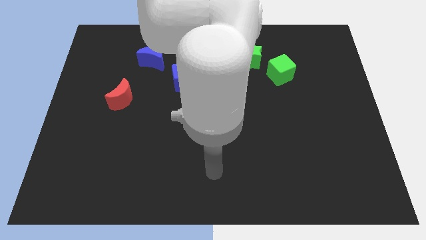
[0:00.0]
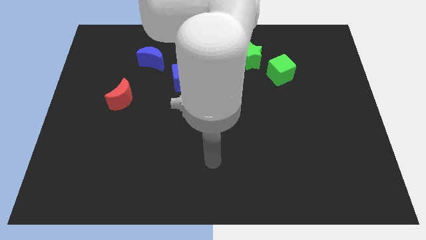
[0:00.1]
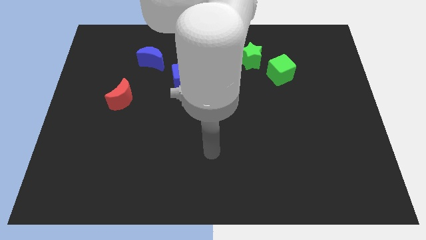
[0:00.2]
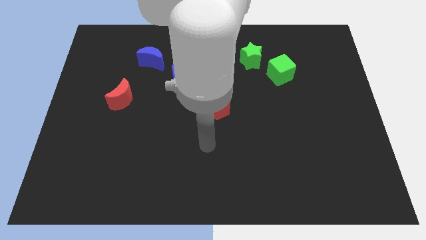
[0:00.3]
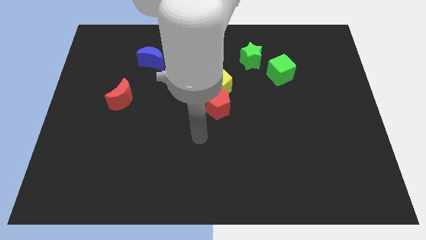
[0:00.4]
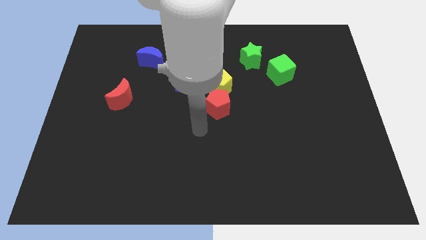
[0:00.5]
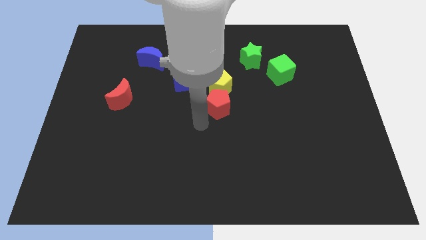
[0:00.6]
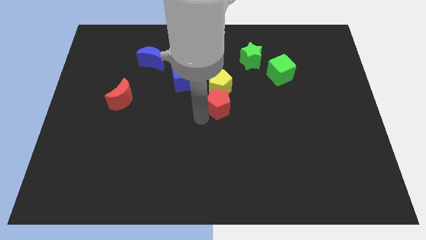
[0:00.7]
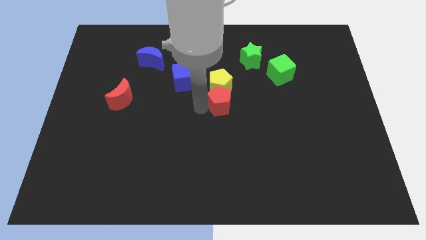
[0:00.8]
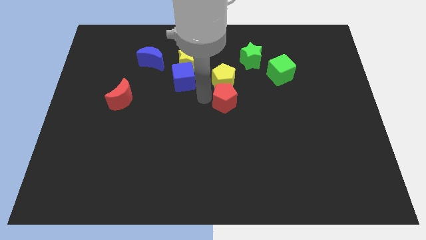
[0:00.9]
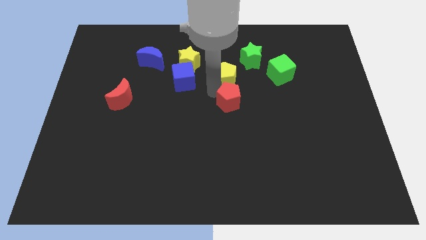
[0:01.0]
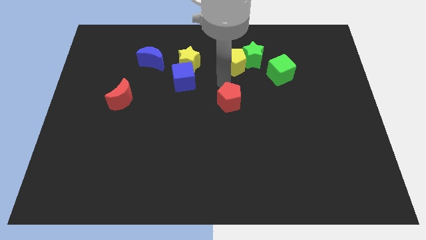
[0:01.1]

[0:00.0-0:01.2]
move the red pentagon away from the yellow pentagon

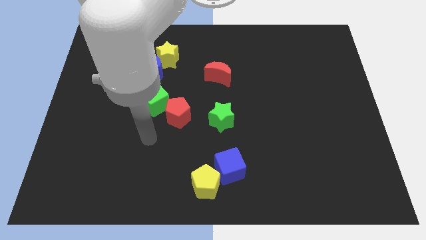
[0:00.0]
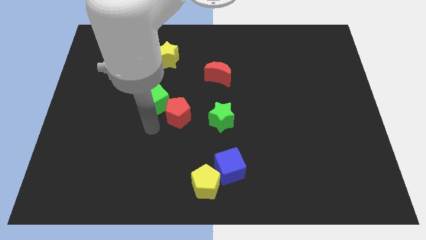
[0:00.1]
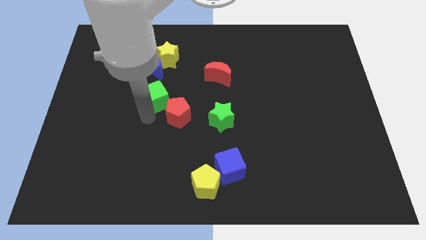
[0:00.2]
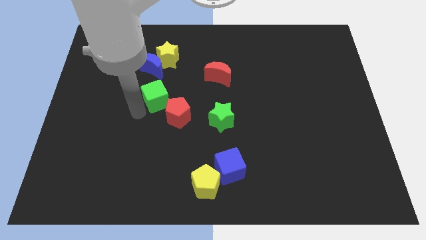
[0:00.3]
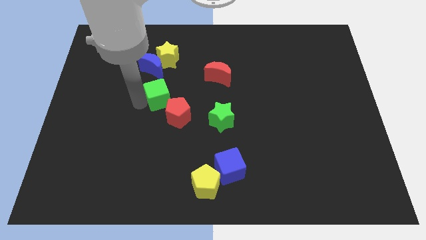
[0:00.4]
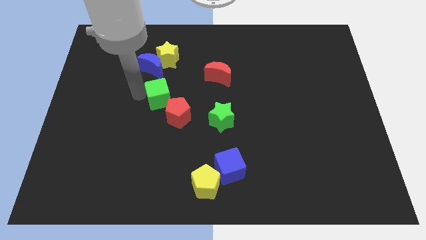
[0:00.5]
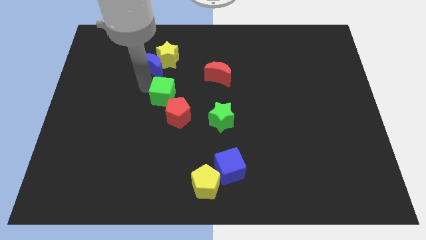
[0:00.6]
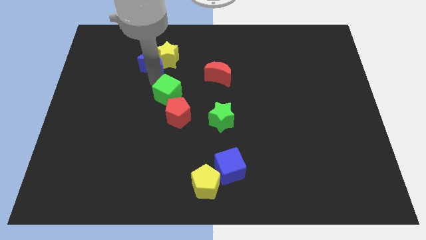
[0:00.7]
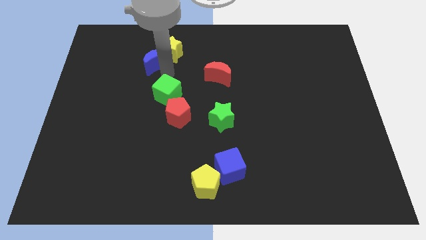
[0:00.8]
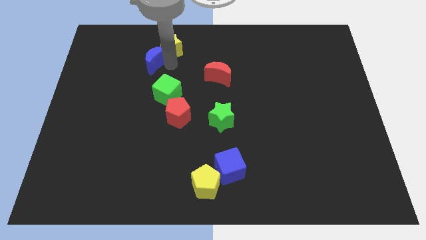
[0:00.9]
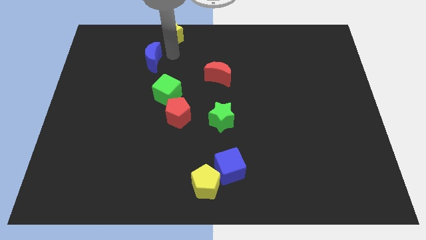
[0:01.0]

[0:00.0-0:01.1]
move the blue moon away from the yellow star

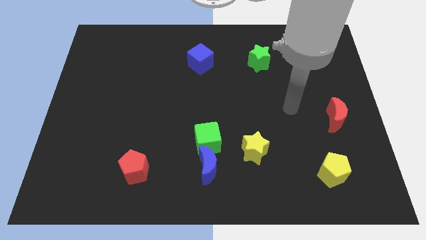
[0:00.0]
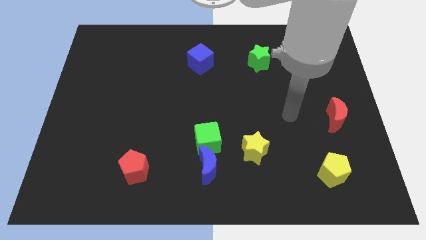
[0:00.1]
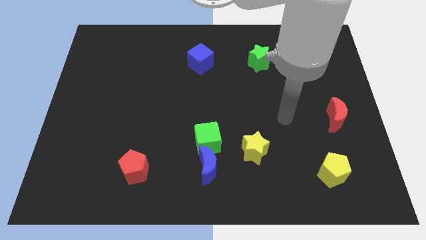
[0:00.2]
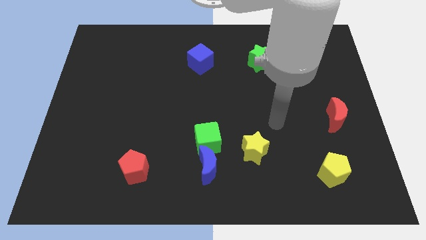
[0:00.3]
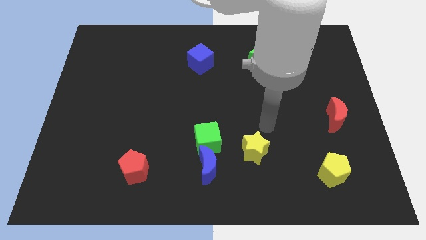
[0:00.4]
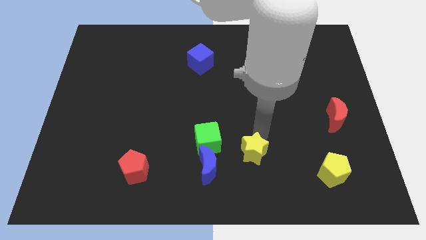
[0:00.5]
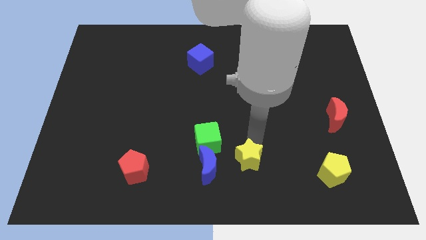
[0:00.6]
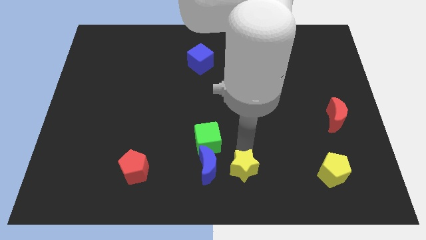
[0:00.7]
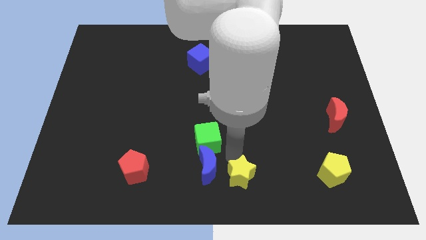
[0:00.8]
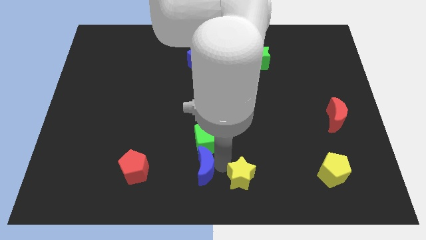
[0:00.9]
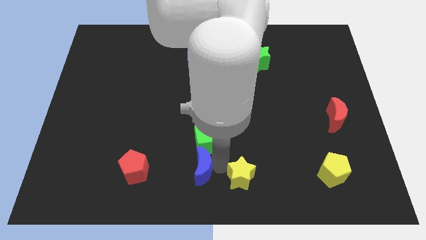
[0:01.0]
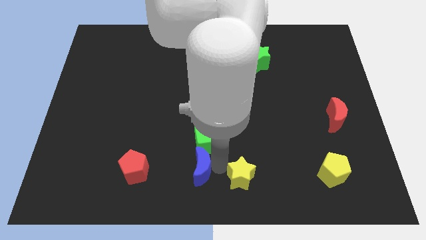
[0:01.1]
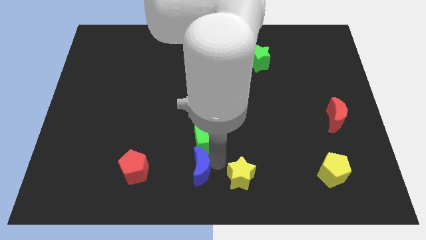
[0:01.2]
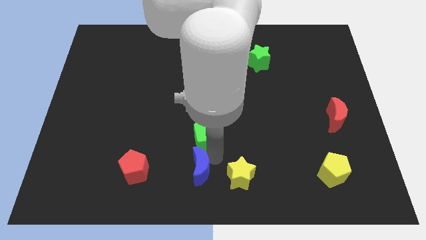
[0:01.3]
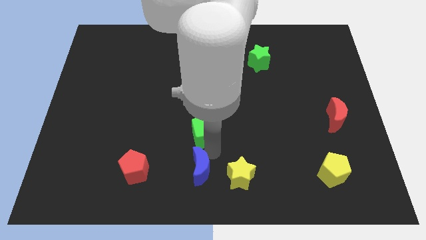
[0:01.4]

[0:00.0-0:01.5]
pull the green cube apart from the blue moon and yellow star

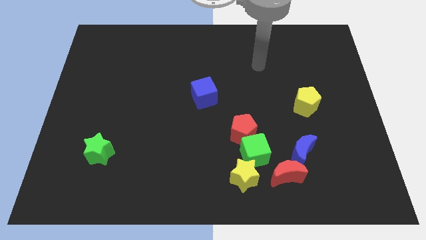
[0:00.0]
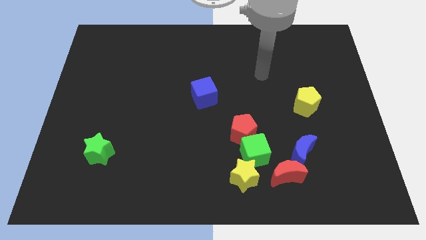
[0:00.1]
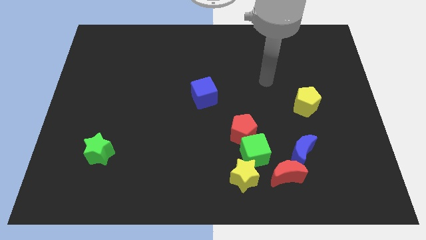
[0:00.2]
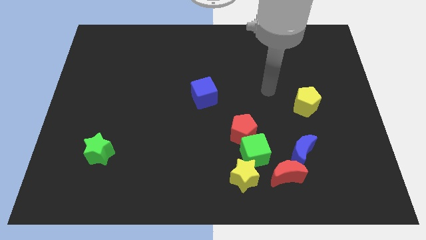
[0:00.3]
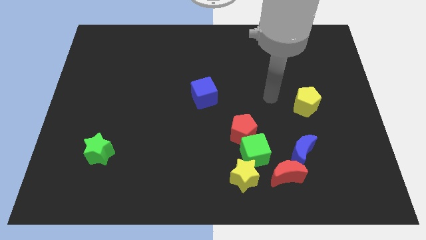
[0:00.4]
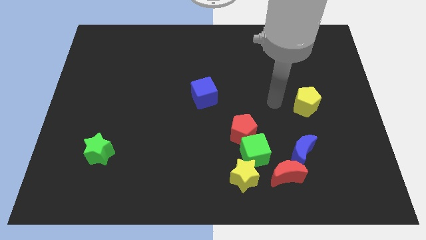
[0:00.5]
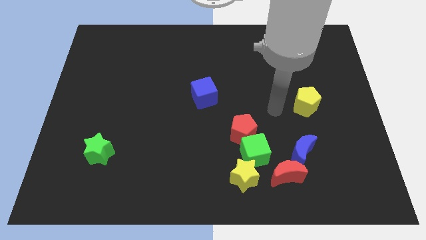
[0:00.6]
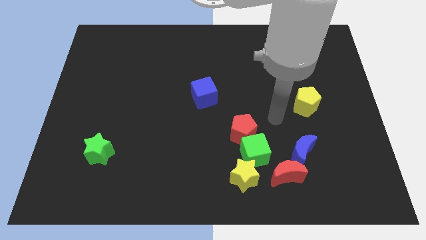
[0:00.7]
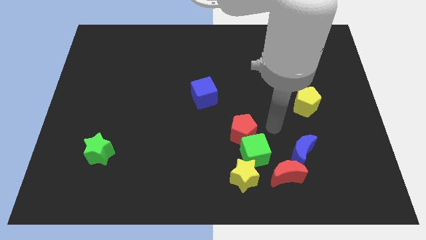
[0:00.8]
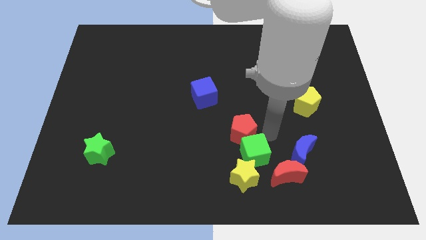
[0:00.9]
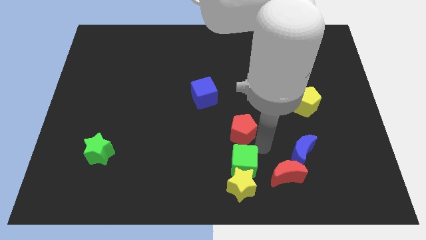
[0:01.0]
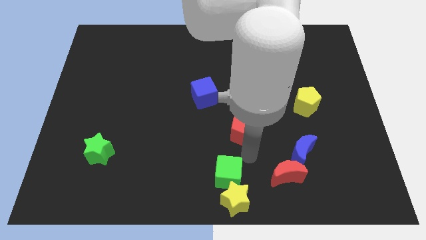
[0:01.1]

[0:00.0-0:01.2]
pull the red pentagon apart from the green cube

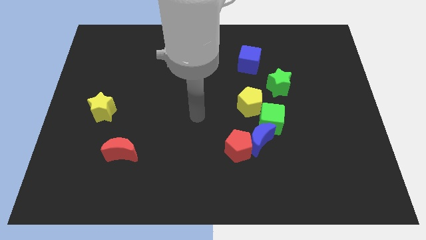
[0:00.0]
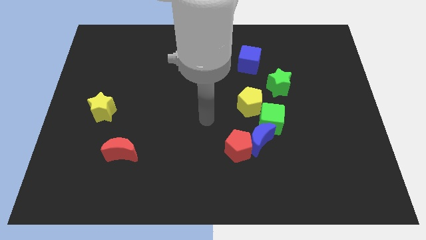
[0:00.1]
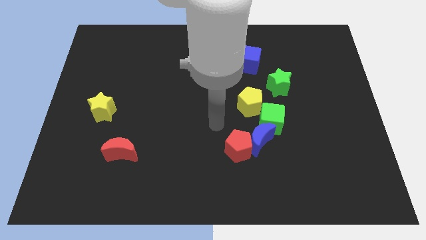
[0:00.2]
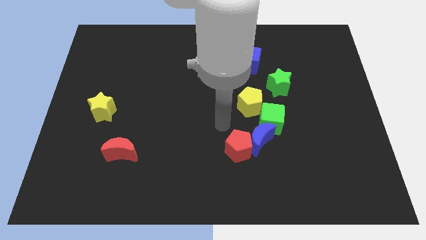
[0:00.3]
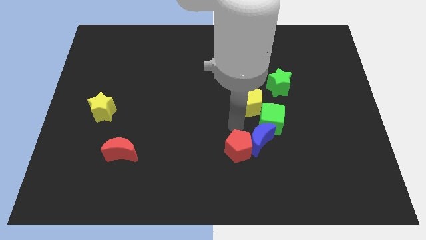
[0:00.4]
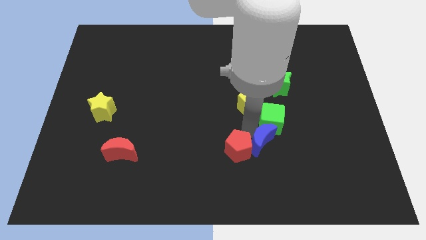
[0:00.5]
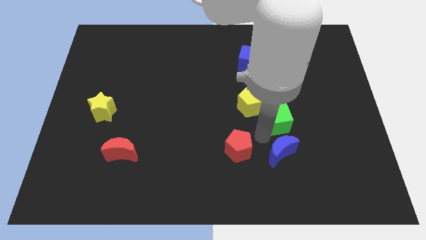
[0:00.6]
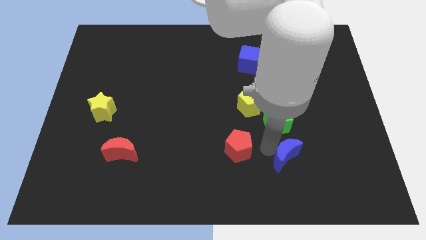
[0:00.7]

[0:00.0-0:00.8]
move the red pentagon away from the blue moon

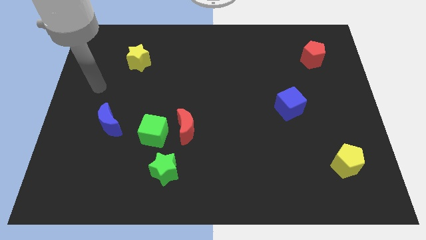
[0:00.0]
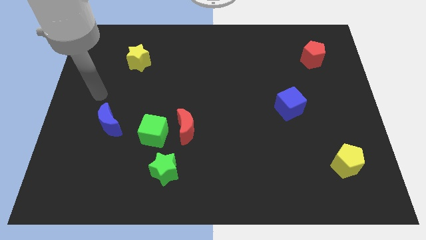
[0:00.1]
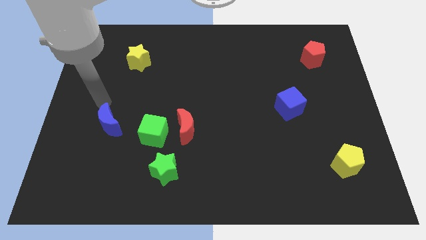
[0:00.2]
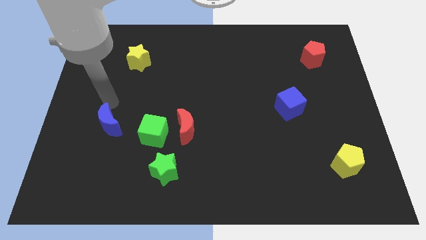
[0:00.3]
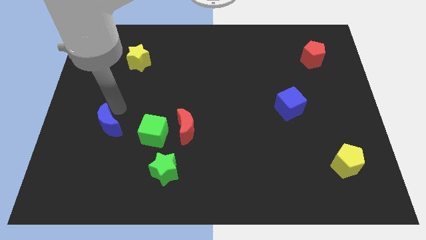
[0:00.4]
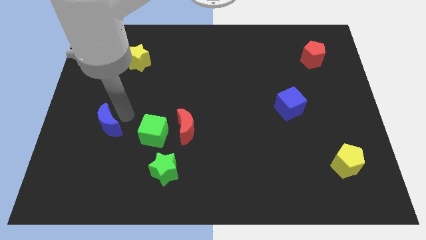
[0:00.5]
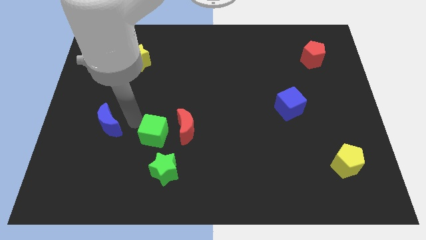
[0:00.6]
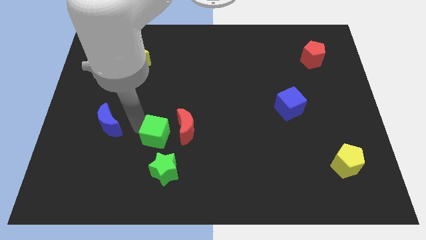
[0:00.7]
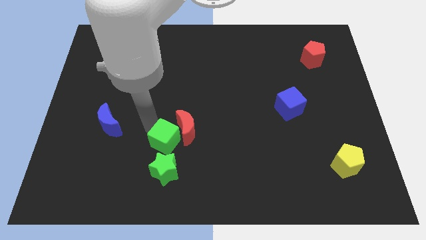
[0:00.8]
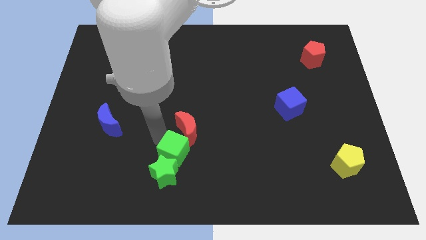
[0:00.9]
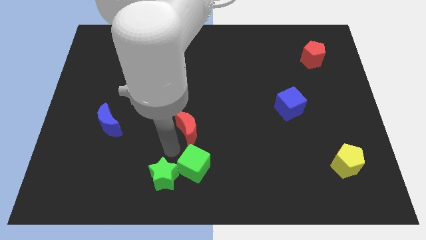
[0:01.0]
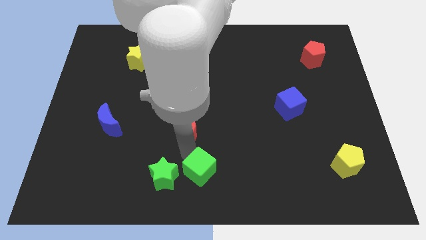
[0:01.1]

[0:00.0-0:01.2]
separate the red moon from the green cube

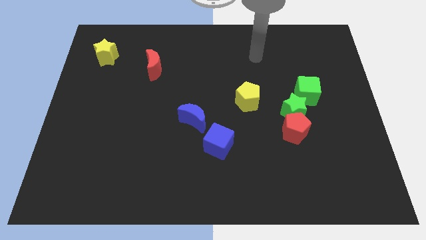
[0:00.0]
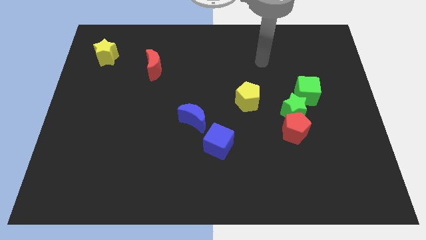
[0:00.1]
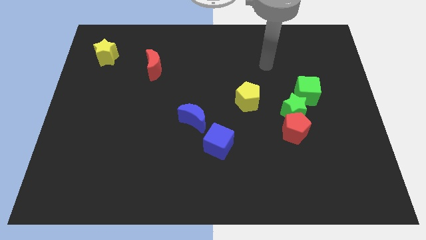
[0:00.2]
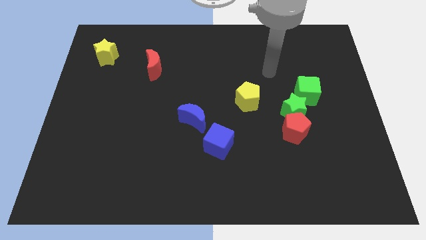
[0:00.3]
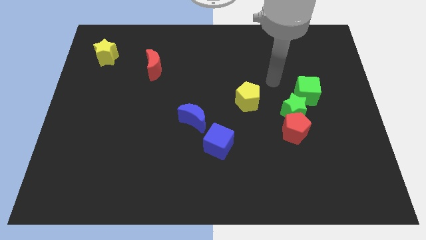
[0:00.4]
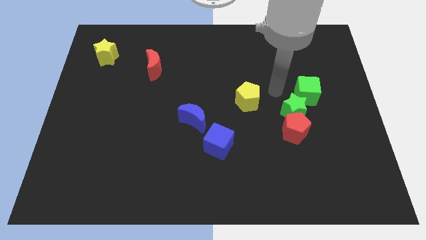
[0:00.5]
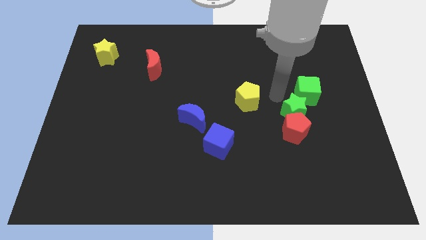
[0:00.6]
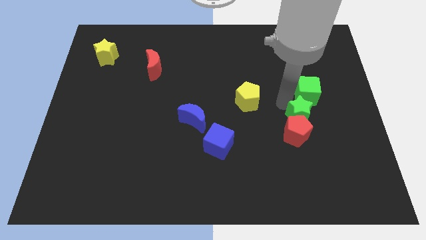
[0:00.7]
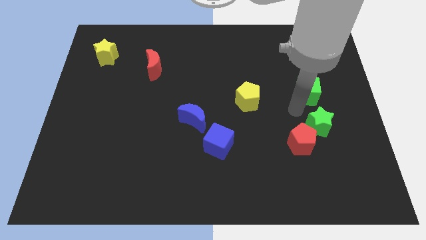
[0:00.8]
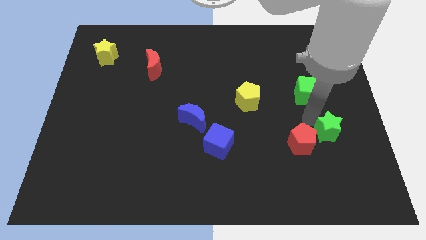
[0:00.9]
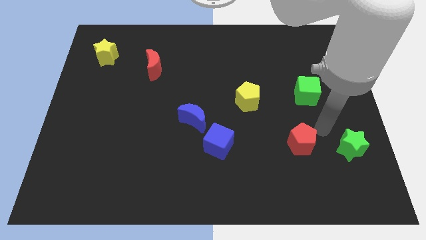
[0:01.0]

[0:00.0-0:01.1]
move the red pentagon away from the green star

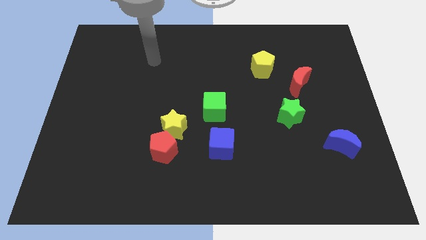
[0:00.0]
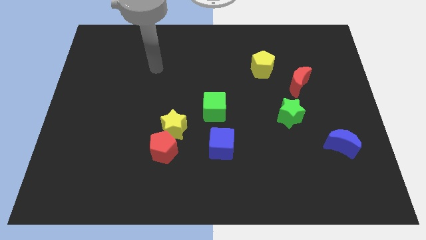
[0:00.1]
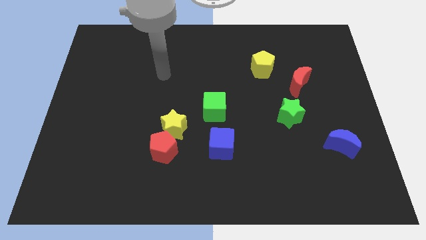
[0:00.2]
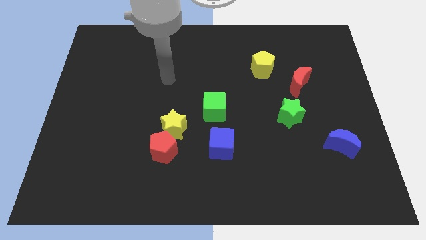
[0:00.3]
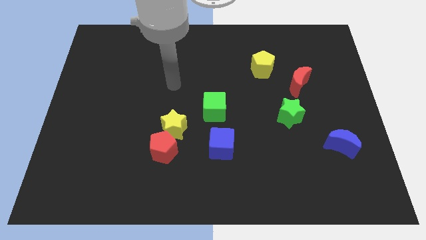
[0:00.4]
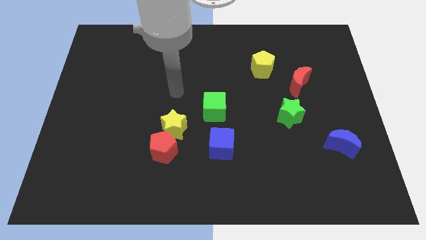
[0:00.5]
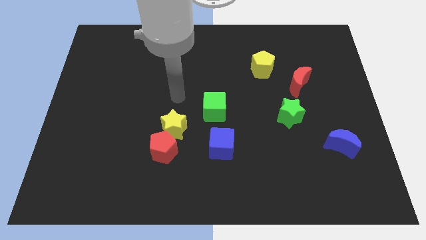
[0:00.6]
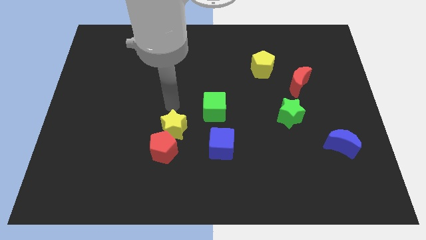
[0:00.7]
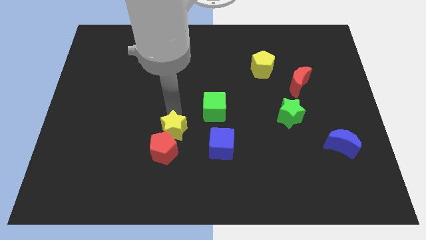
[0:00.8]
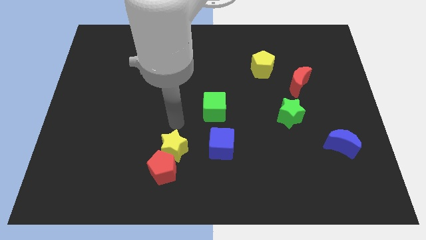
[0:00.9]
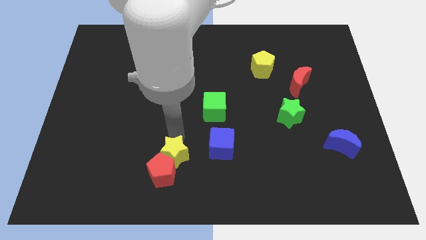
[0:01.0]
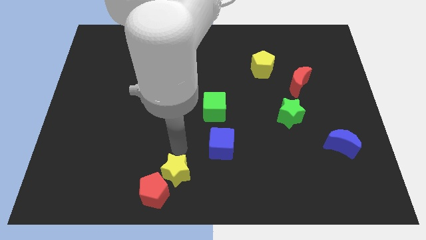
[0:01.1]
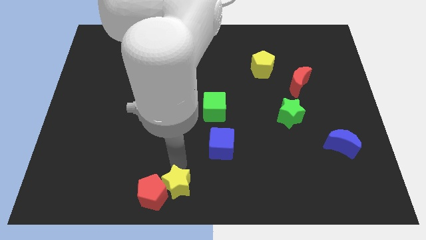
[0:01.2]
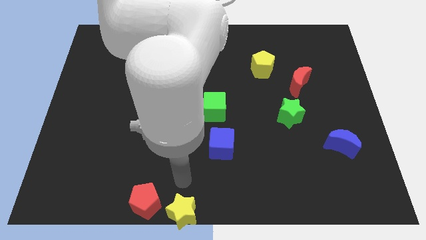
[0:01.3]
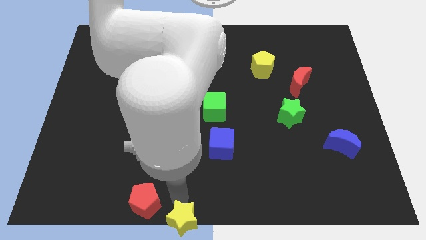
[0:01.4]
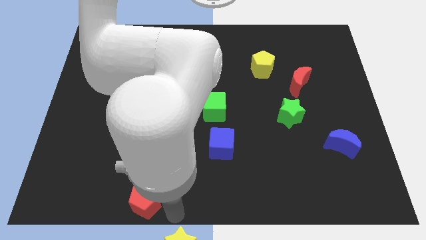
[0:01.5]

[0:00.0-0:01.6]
separate the red pentagon from the yellow star
